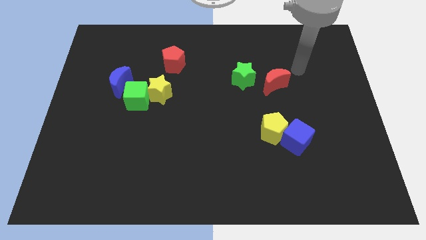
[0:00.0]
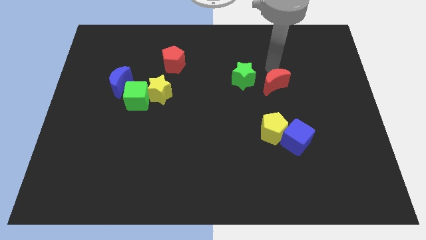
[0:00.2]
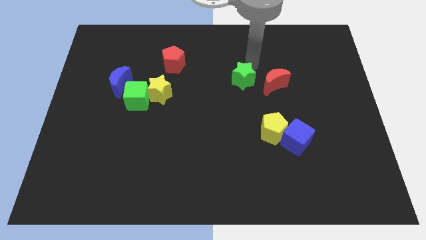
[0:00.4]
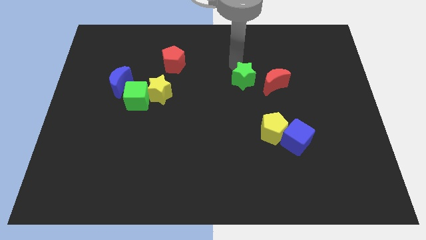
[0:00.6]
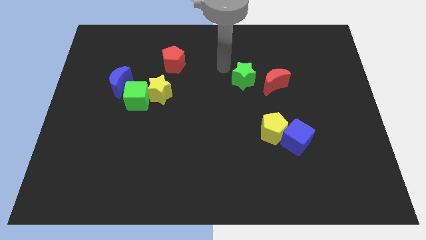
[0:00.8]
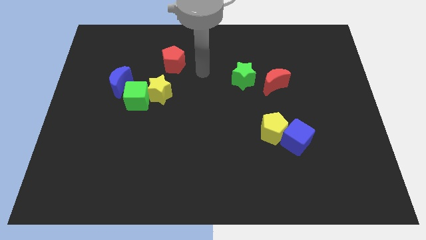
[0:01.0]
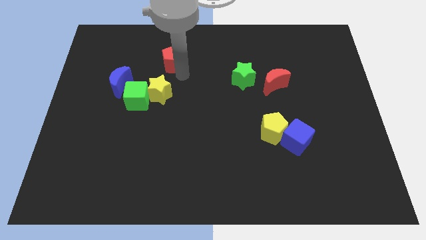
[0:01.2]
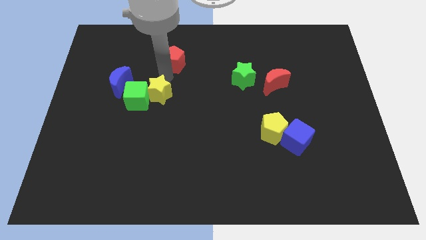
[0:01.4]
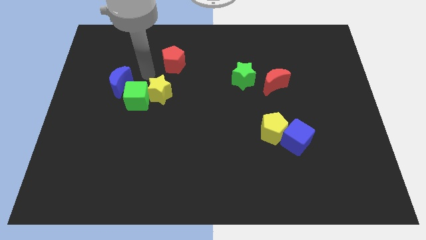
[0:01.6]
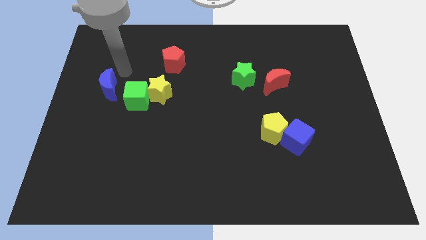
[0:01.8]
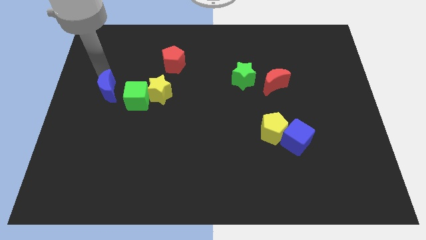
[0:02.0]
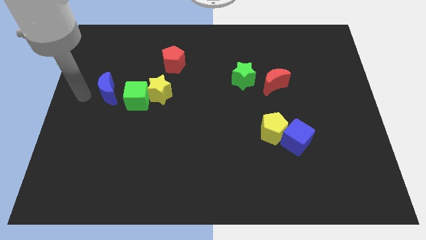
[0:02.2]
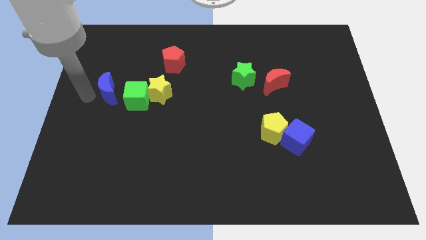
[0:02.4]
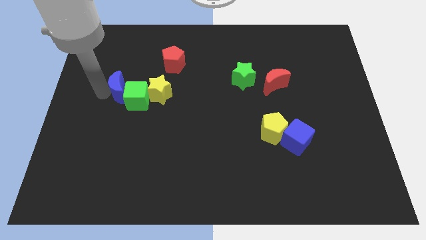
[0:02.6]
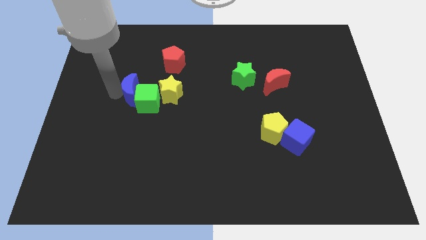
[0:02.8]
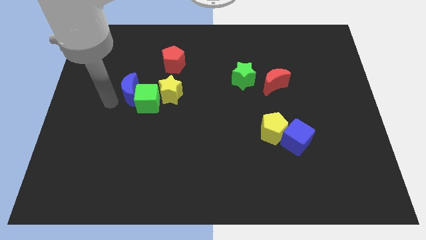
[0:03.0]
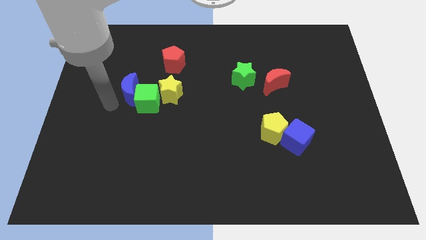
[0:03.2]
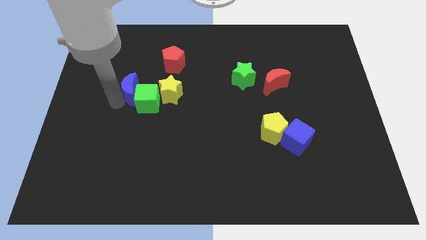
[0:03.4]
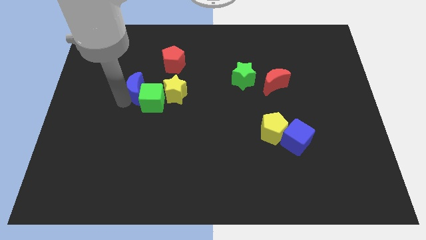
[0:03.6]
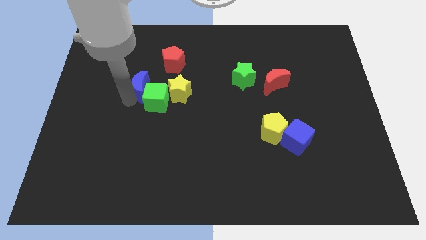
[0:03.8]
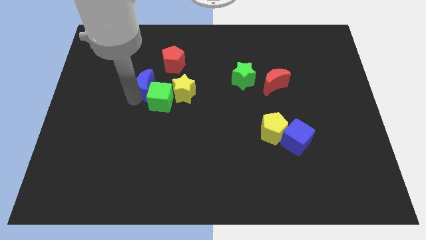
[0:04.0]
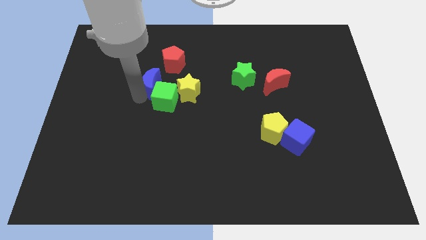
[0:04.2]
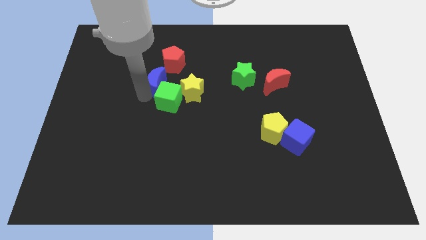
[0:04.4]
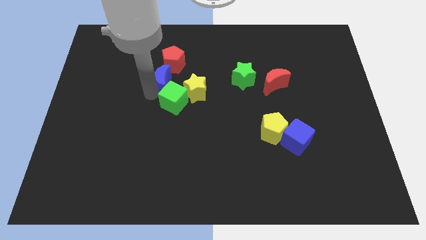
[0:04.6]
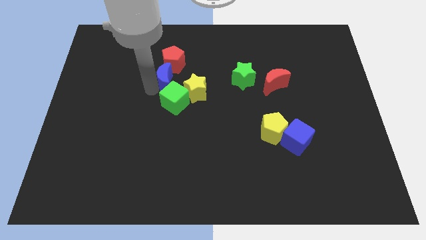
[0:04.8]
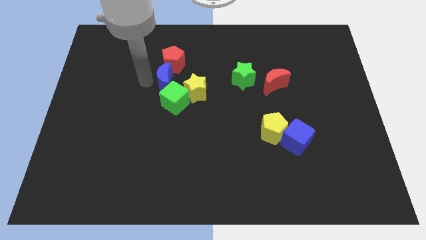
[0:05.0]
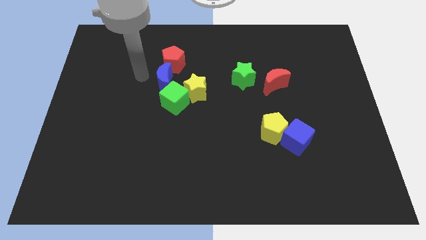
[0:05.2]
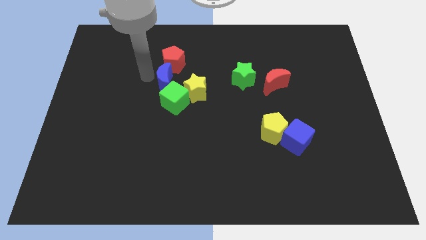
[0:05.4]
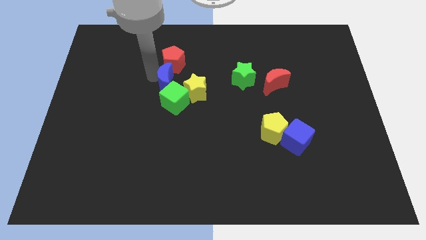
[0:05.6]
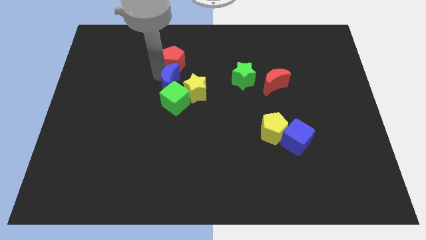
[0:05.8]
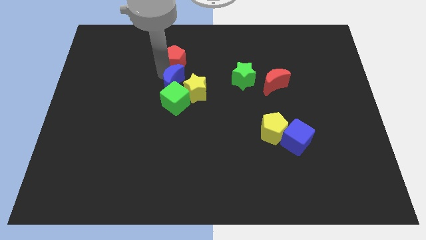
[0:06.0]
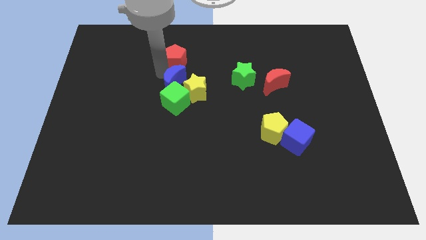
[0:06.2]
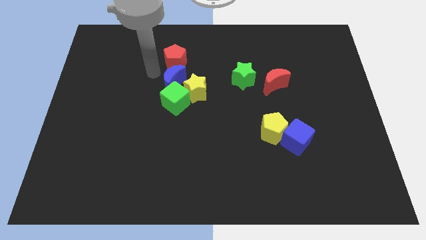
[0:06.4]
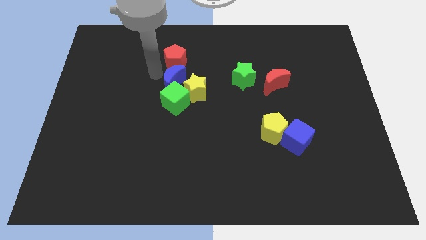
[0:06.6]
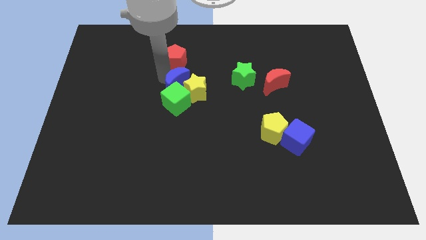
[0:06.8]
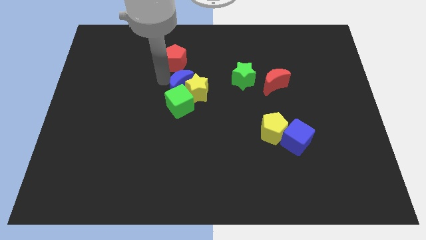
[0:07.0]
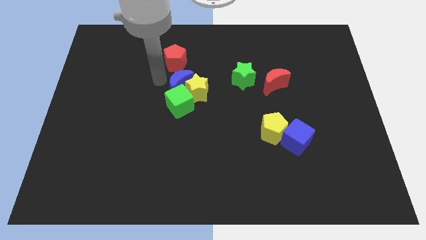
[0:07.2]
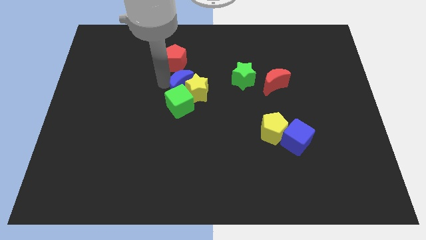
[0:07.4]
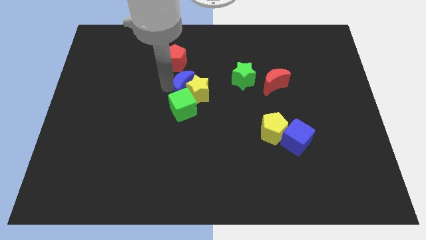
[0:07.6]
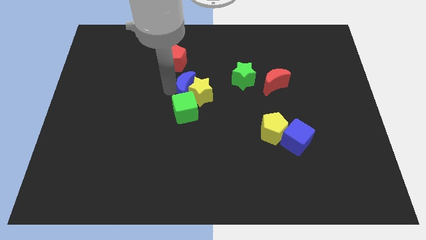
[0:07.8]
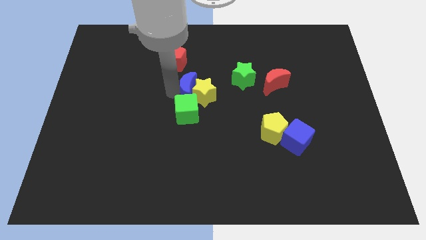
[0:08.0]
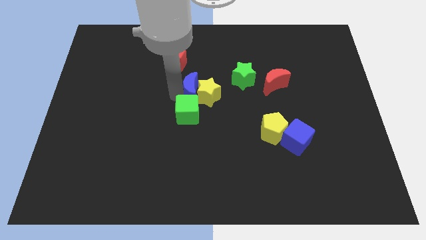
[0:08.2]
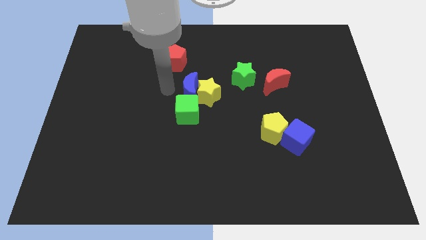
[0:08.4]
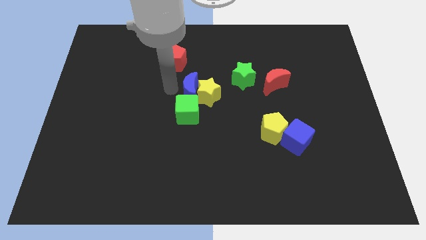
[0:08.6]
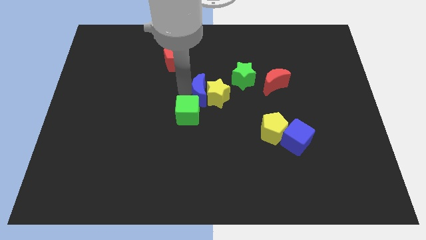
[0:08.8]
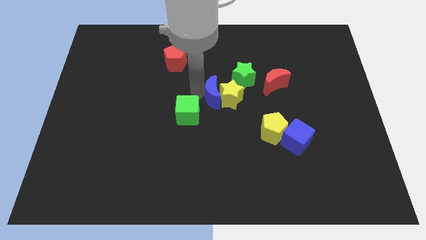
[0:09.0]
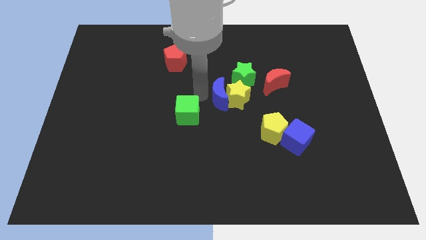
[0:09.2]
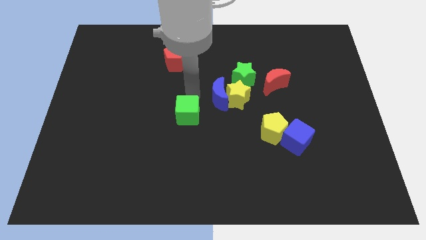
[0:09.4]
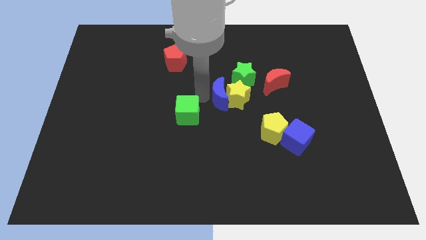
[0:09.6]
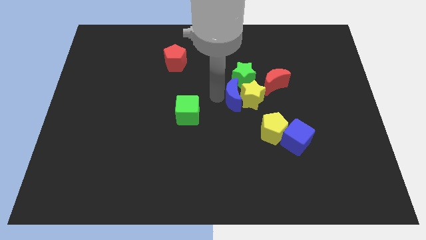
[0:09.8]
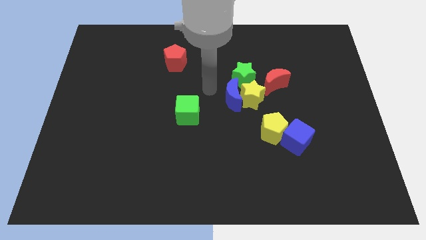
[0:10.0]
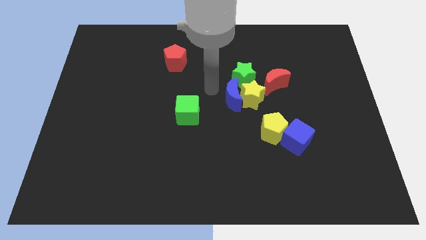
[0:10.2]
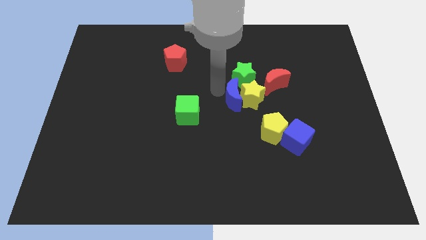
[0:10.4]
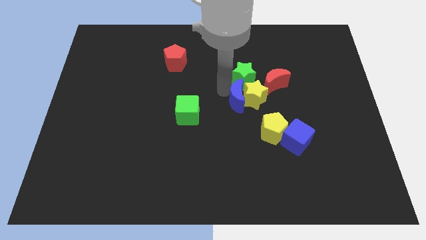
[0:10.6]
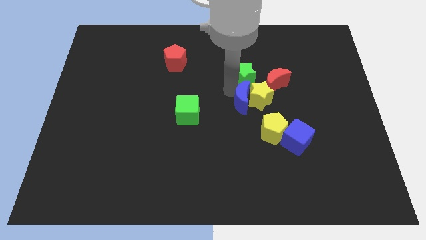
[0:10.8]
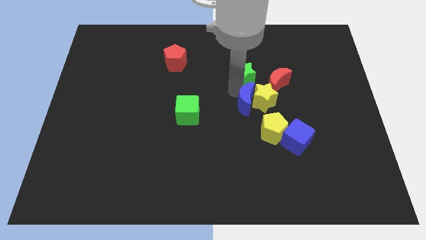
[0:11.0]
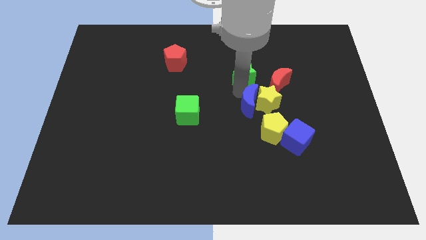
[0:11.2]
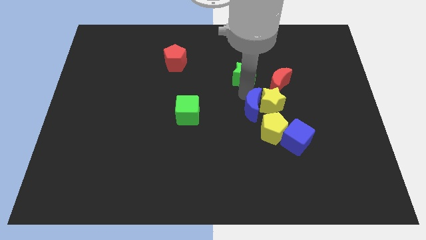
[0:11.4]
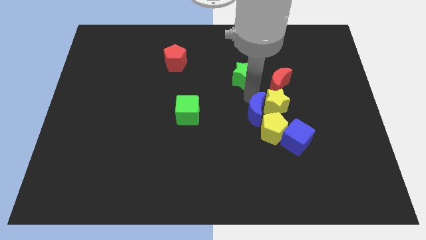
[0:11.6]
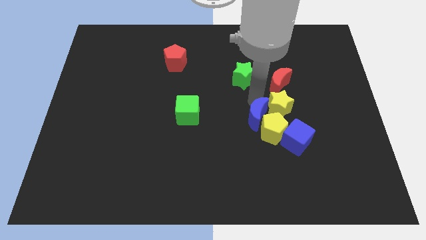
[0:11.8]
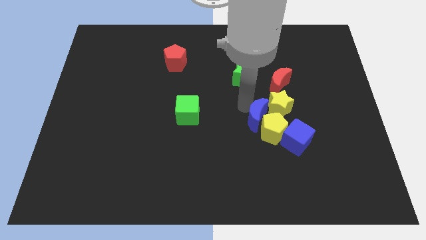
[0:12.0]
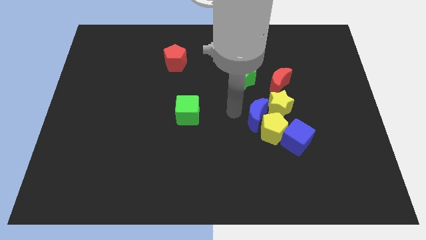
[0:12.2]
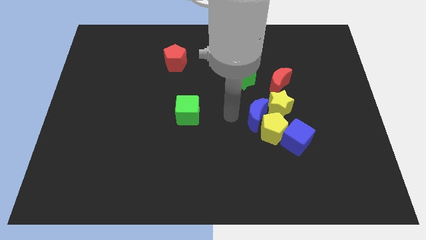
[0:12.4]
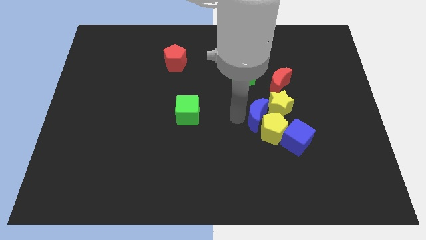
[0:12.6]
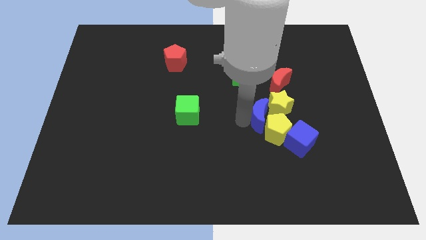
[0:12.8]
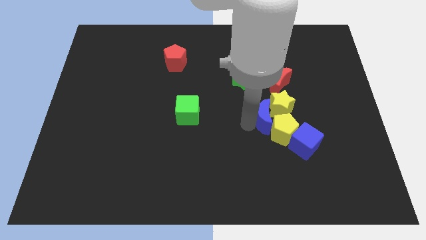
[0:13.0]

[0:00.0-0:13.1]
move the blue moon below the red moon

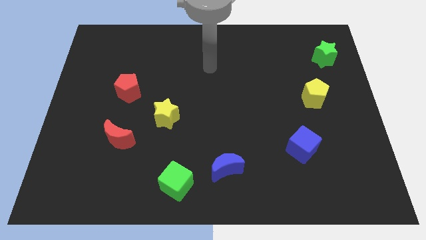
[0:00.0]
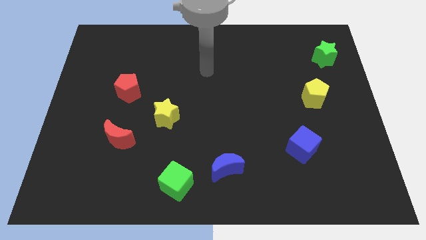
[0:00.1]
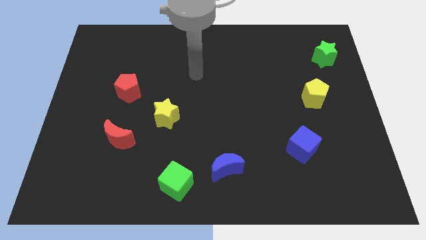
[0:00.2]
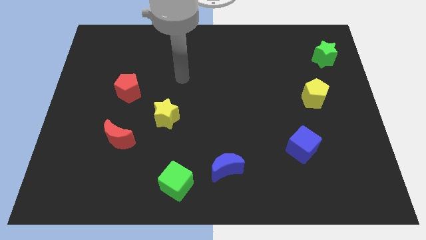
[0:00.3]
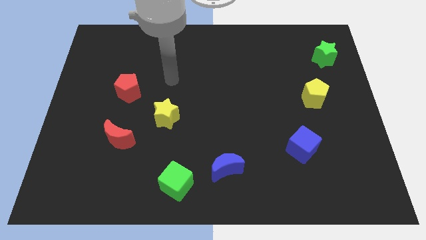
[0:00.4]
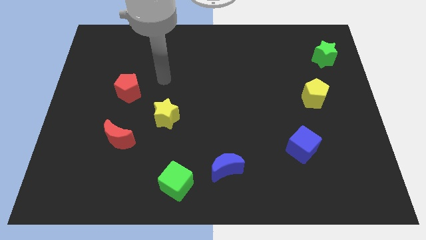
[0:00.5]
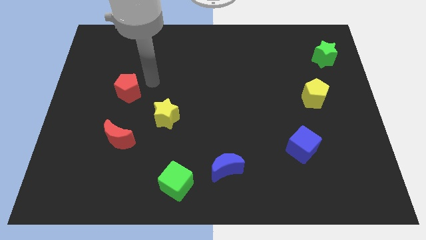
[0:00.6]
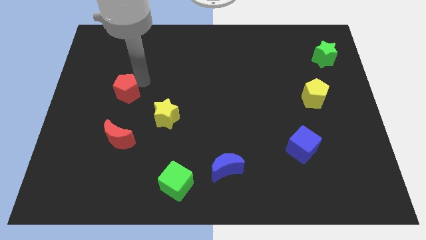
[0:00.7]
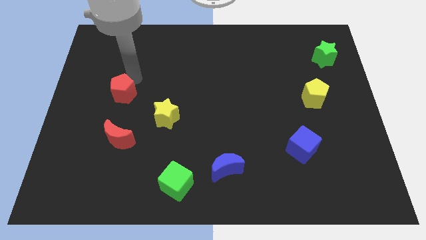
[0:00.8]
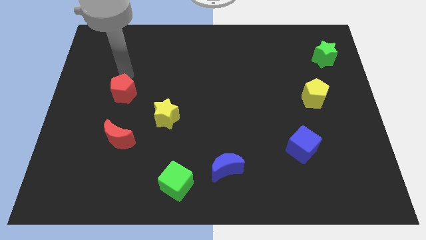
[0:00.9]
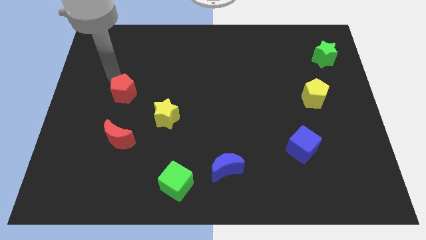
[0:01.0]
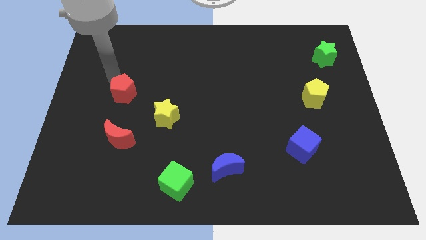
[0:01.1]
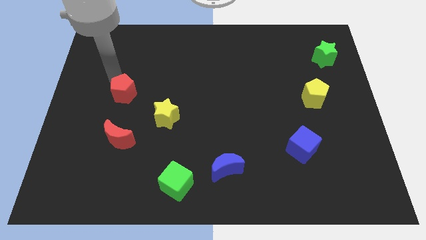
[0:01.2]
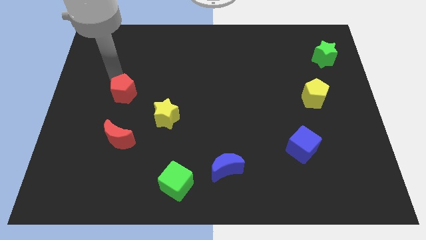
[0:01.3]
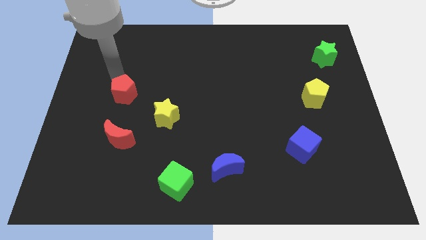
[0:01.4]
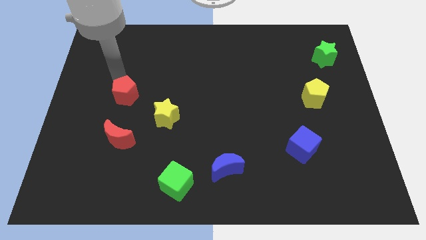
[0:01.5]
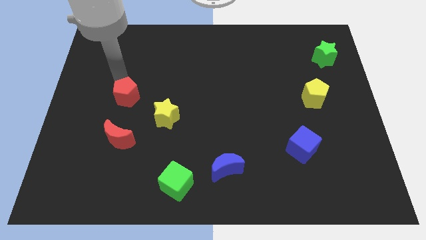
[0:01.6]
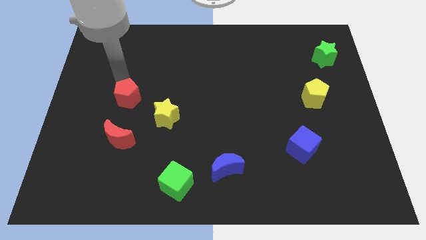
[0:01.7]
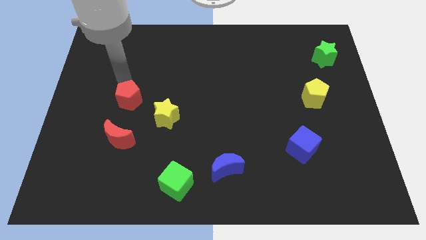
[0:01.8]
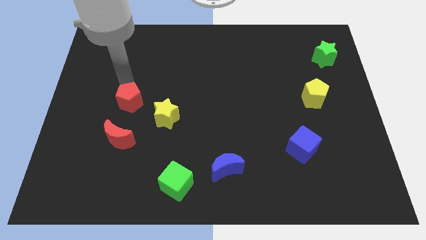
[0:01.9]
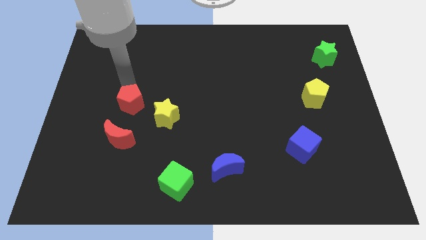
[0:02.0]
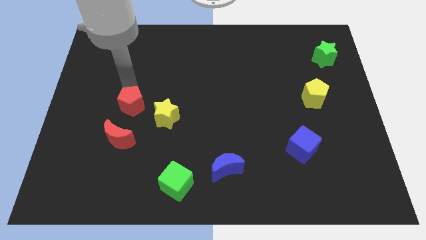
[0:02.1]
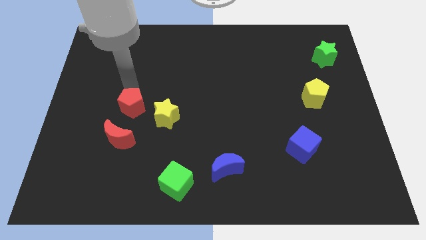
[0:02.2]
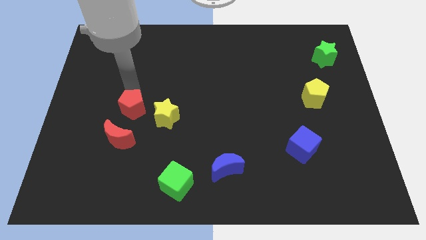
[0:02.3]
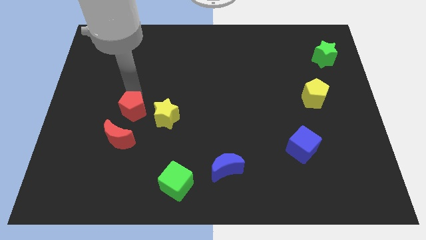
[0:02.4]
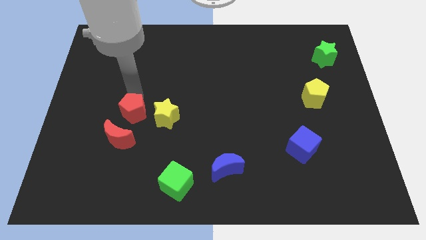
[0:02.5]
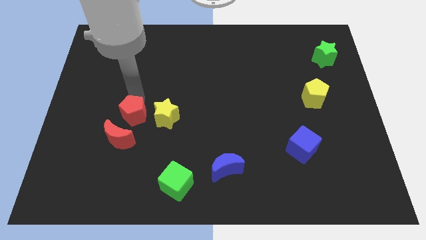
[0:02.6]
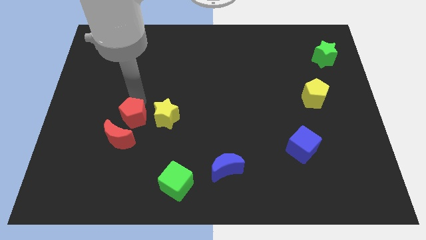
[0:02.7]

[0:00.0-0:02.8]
move the red pentagon diagonally down and to the left of the yellow star
